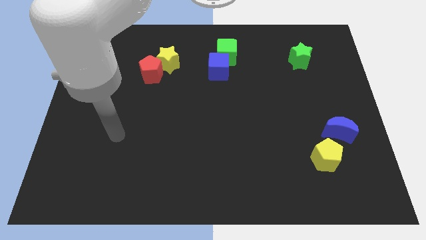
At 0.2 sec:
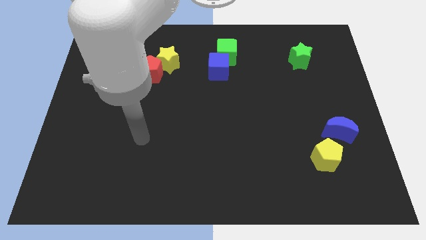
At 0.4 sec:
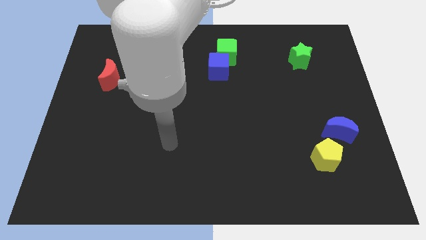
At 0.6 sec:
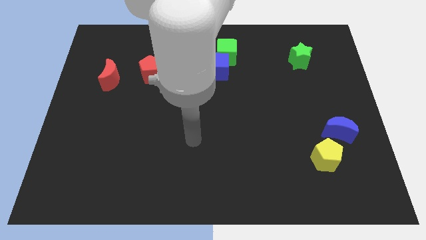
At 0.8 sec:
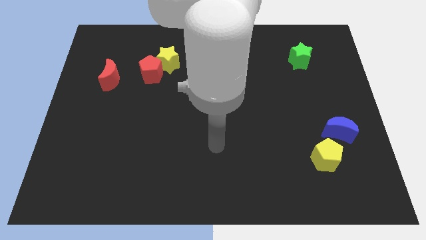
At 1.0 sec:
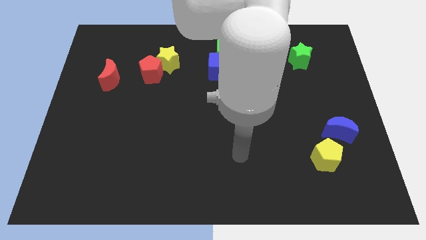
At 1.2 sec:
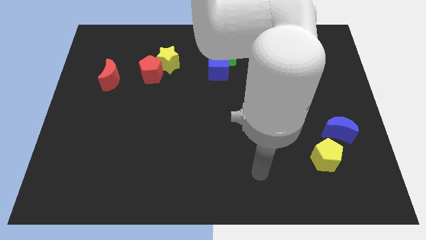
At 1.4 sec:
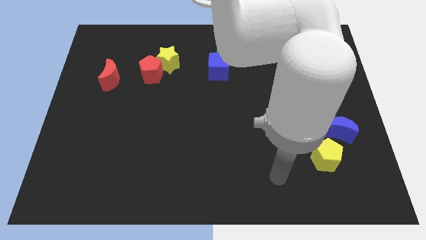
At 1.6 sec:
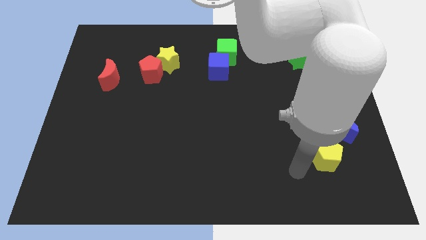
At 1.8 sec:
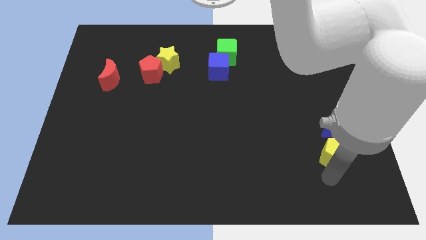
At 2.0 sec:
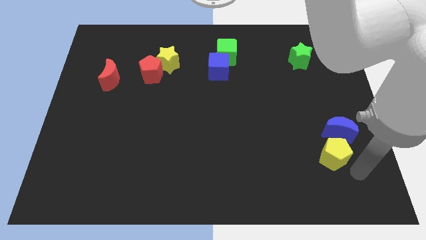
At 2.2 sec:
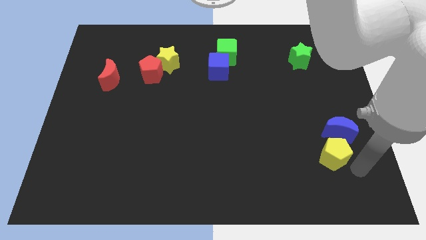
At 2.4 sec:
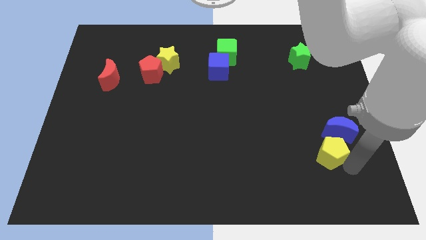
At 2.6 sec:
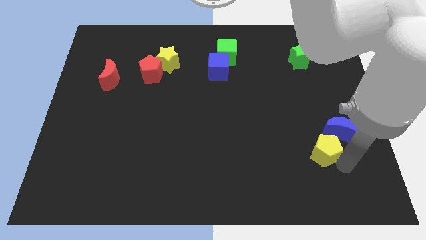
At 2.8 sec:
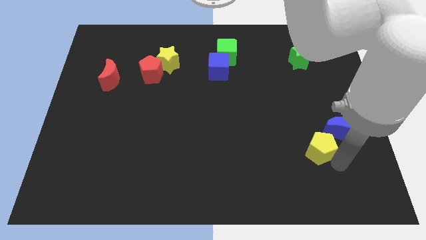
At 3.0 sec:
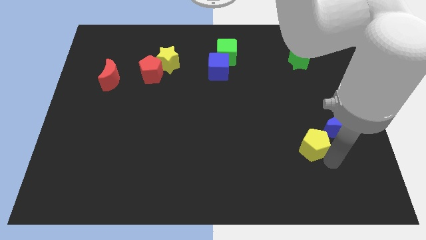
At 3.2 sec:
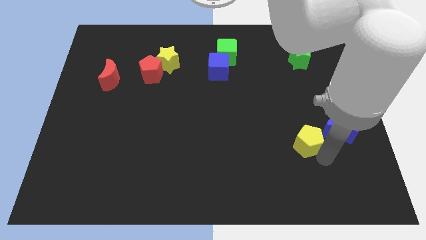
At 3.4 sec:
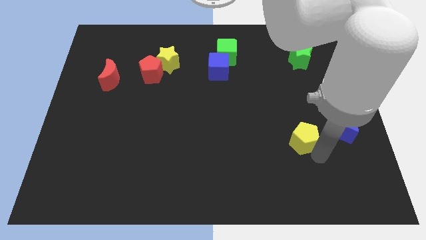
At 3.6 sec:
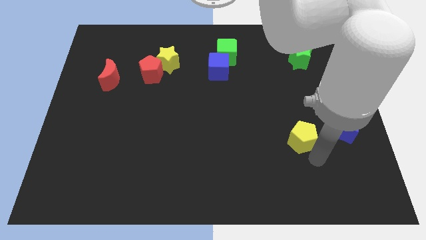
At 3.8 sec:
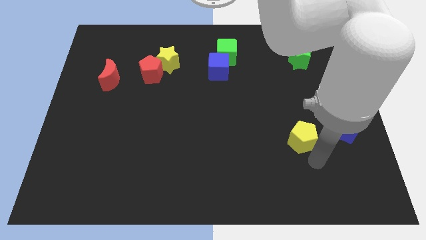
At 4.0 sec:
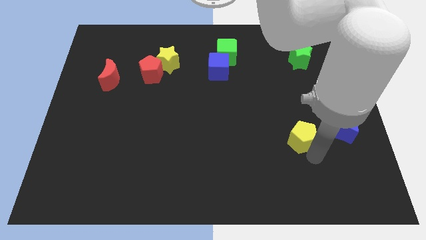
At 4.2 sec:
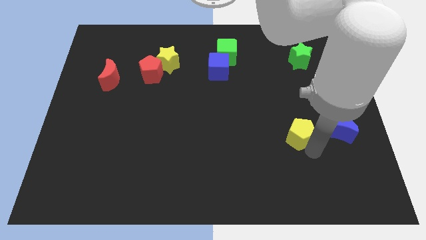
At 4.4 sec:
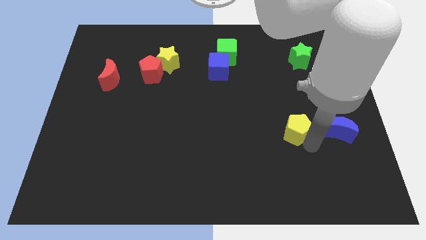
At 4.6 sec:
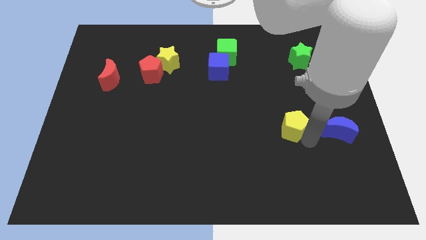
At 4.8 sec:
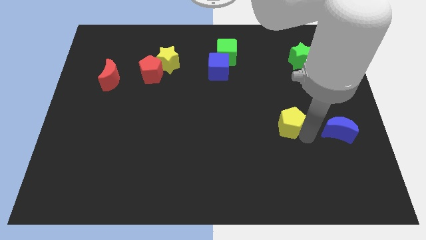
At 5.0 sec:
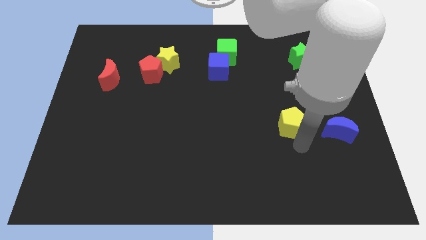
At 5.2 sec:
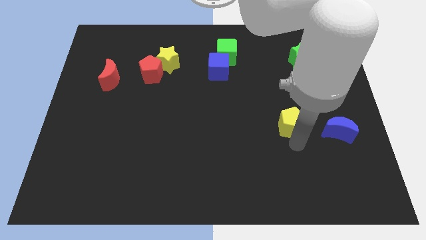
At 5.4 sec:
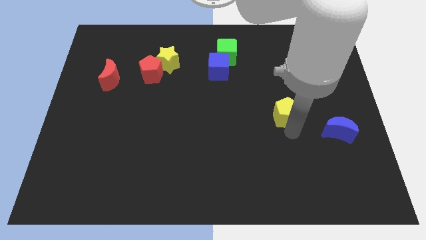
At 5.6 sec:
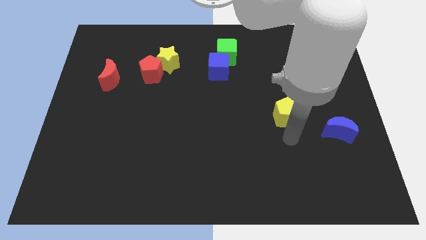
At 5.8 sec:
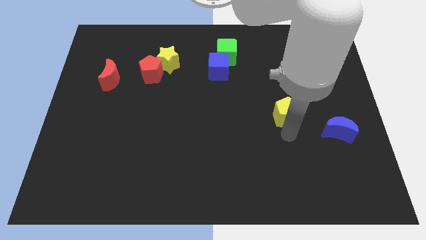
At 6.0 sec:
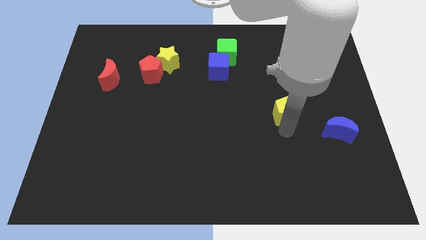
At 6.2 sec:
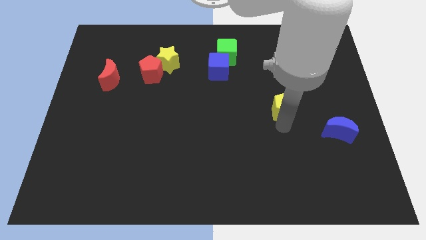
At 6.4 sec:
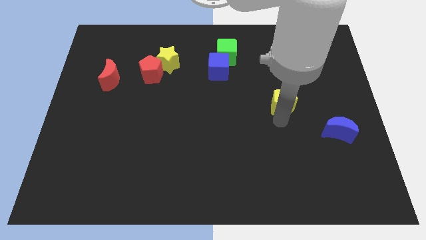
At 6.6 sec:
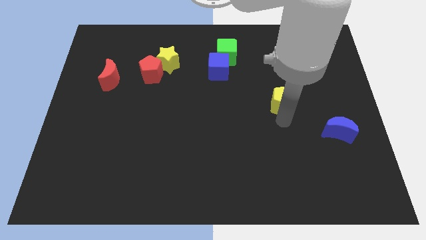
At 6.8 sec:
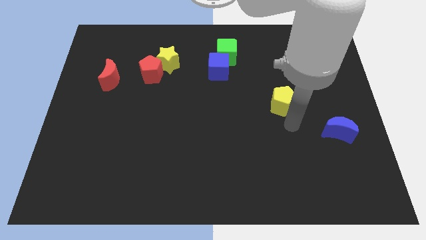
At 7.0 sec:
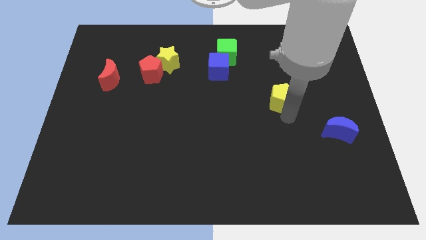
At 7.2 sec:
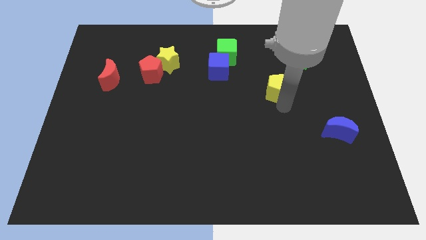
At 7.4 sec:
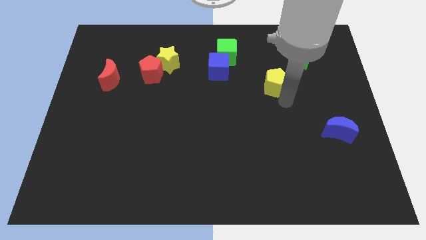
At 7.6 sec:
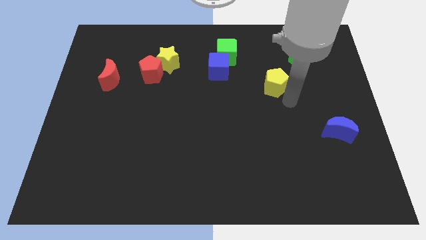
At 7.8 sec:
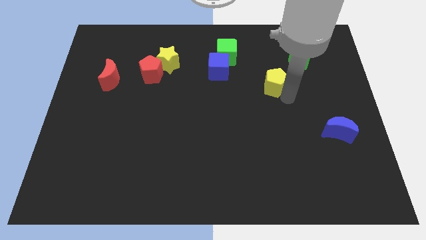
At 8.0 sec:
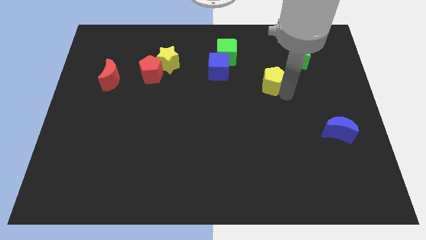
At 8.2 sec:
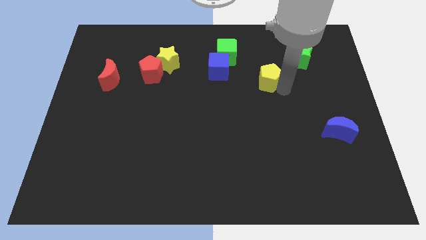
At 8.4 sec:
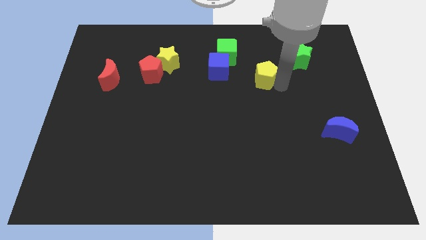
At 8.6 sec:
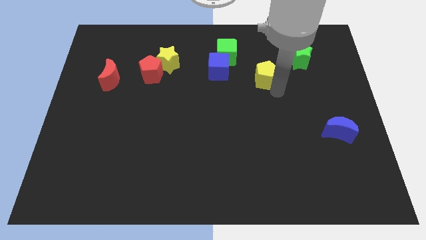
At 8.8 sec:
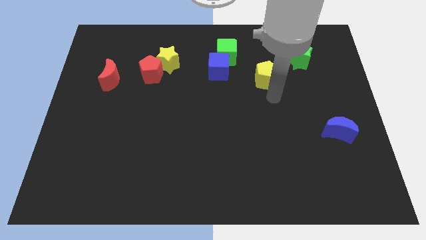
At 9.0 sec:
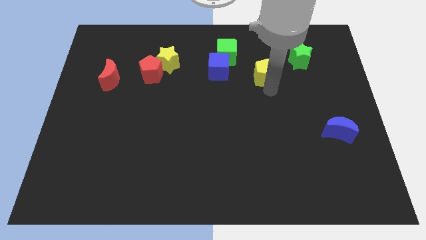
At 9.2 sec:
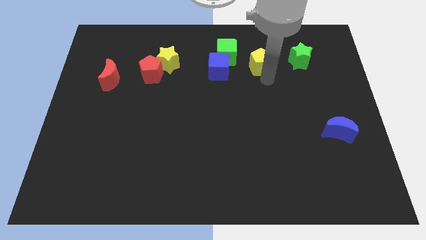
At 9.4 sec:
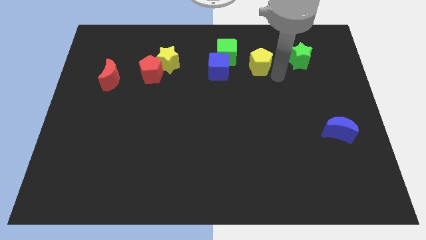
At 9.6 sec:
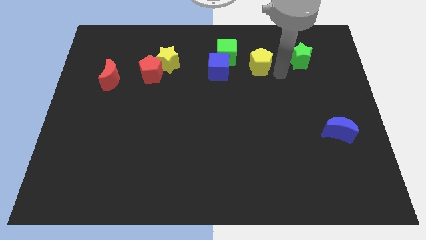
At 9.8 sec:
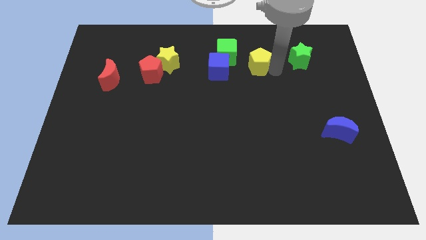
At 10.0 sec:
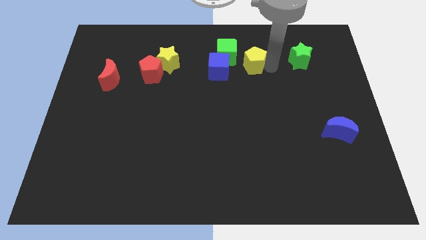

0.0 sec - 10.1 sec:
slide the yellow pentagon to the top right of the blue cube

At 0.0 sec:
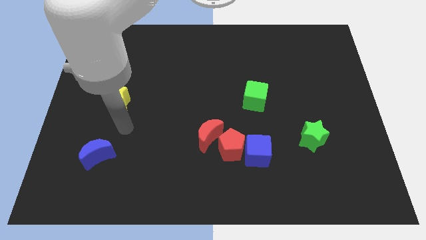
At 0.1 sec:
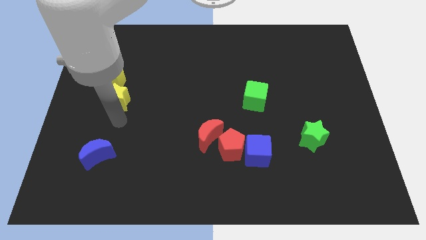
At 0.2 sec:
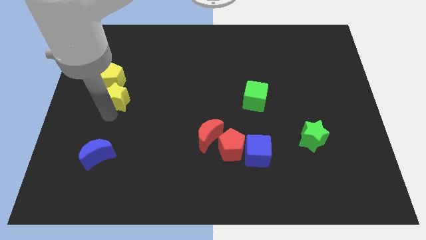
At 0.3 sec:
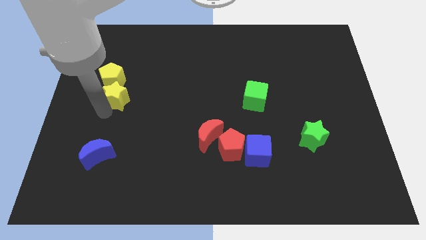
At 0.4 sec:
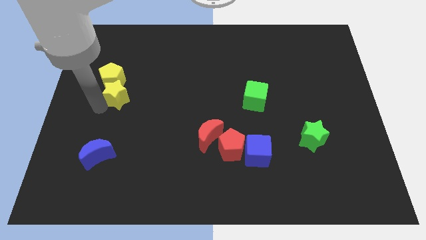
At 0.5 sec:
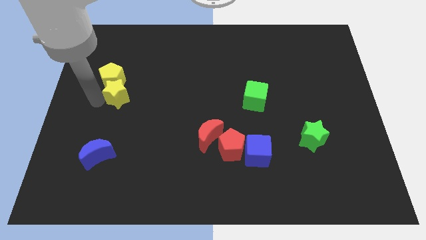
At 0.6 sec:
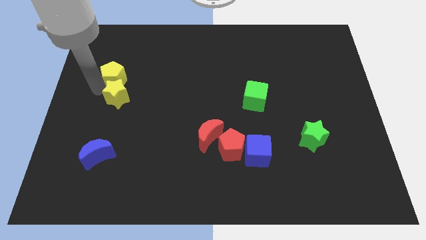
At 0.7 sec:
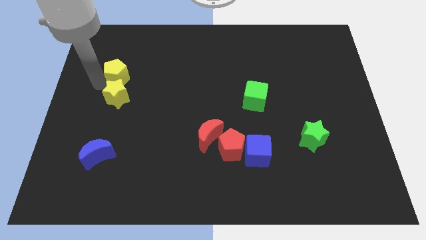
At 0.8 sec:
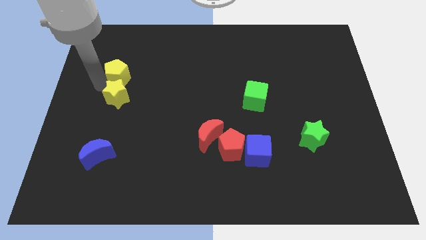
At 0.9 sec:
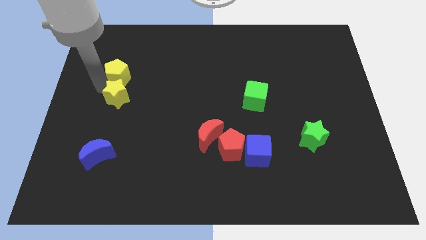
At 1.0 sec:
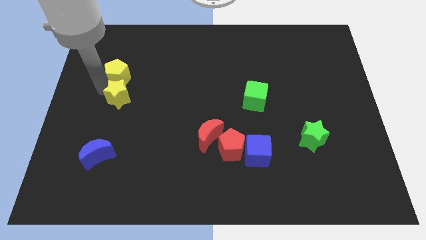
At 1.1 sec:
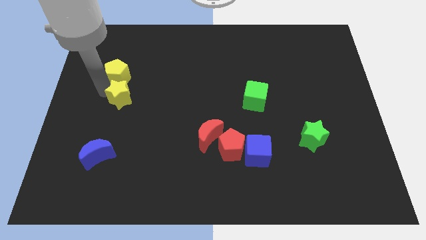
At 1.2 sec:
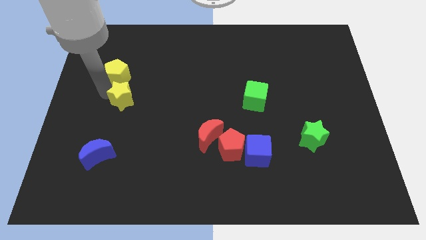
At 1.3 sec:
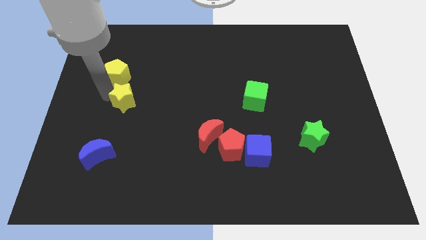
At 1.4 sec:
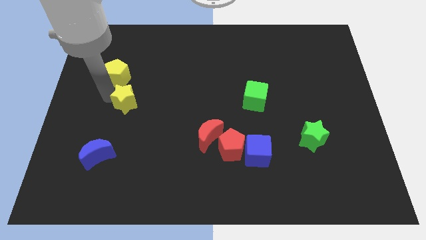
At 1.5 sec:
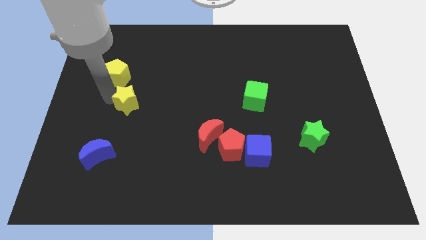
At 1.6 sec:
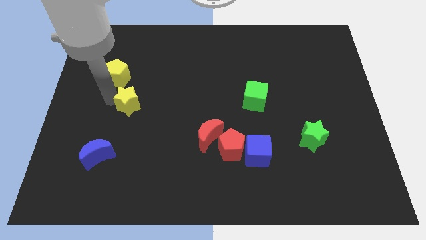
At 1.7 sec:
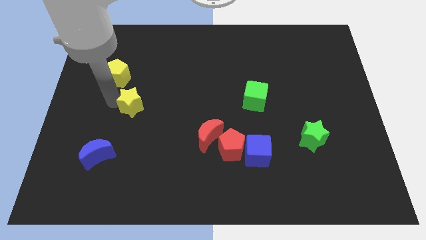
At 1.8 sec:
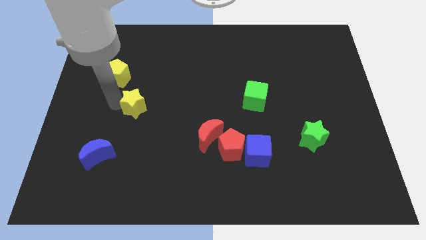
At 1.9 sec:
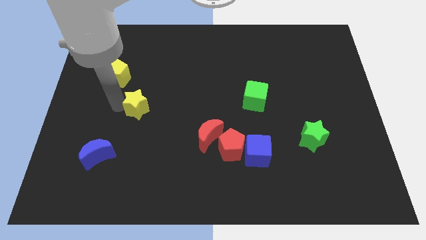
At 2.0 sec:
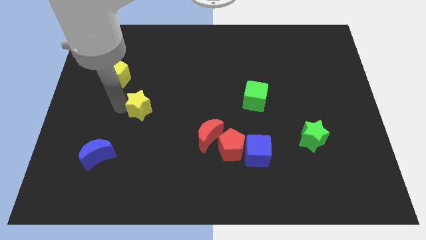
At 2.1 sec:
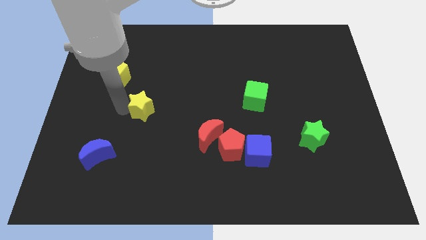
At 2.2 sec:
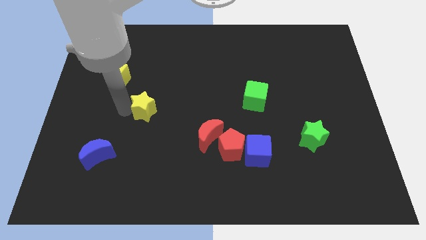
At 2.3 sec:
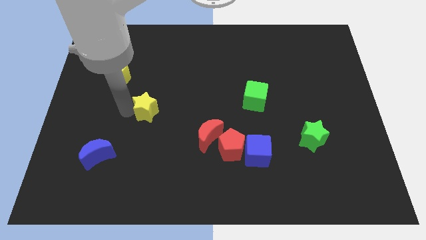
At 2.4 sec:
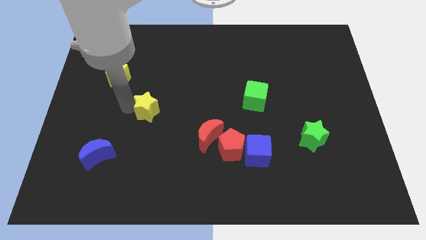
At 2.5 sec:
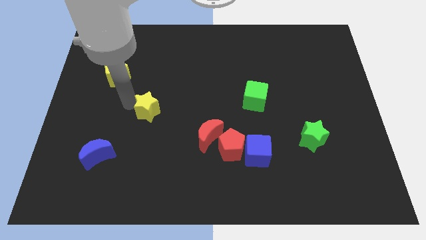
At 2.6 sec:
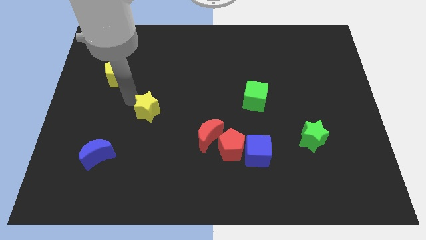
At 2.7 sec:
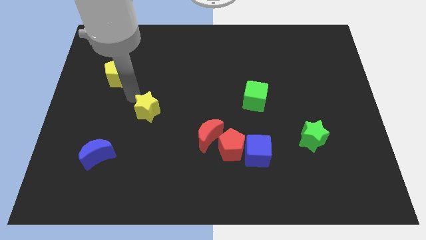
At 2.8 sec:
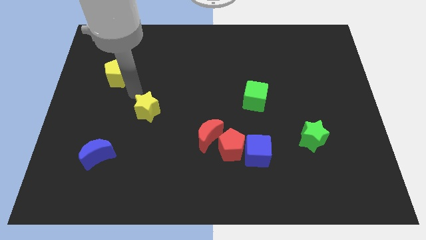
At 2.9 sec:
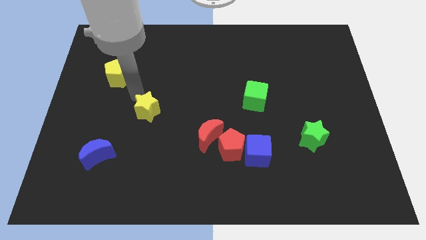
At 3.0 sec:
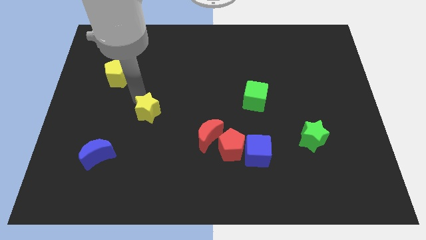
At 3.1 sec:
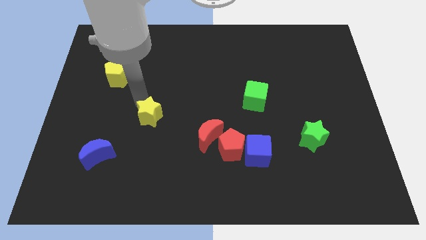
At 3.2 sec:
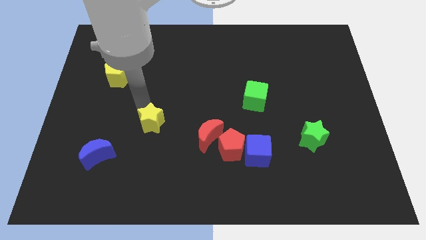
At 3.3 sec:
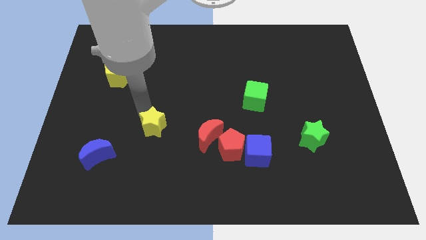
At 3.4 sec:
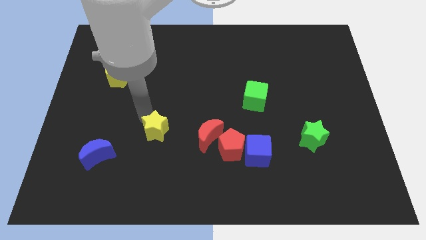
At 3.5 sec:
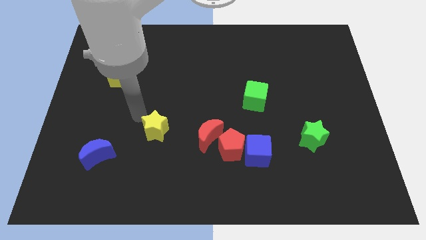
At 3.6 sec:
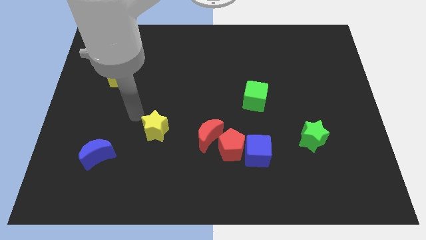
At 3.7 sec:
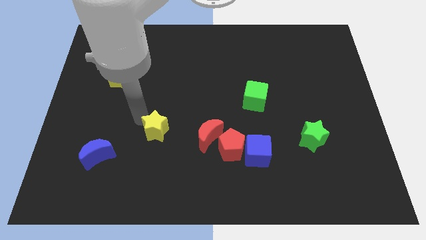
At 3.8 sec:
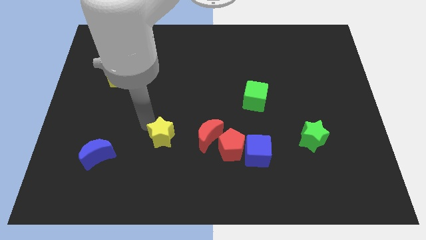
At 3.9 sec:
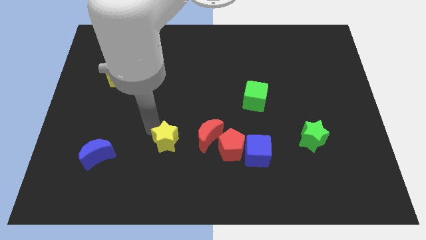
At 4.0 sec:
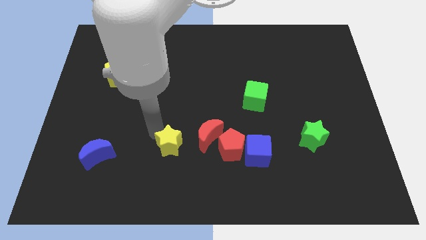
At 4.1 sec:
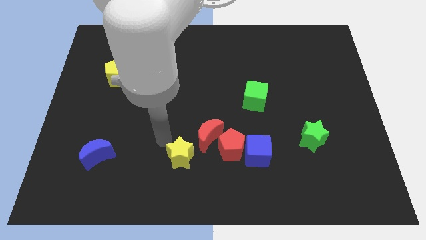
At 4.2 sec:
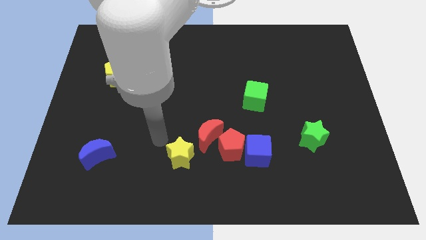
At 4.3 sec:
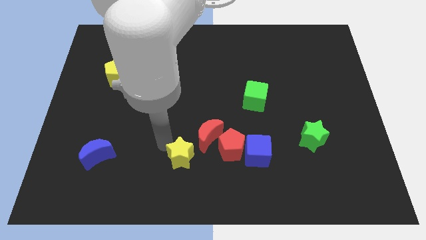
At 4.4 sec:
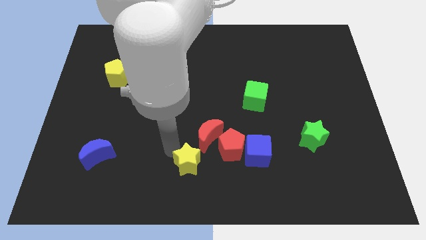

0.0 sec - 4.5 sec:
put the yellow star to the bottom side of the red moon
